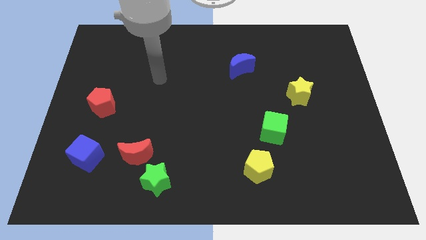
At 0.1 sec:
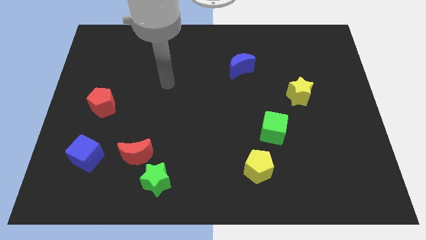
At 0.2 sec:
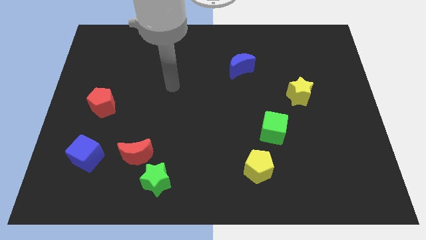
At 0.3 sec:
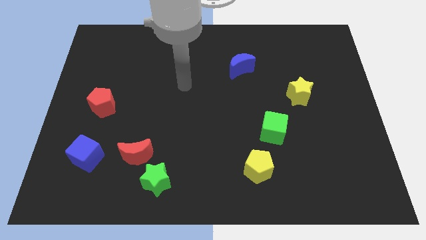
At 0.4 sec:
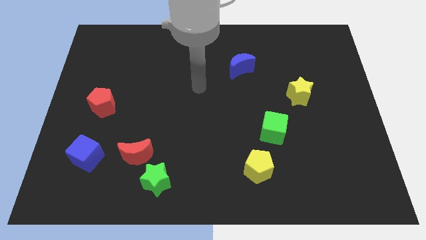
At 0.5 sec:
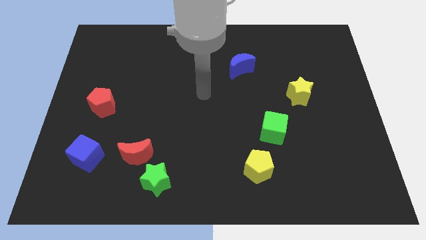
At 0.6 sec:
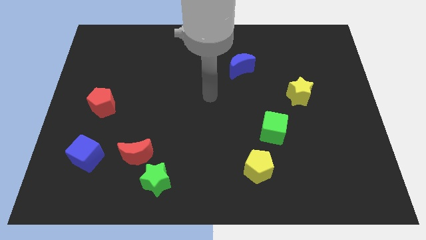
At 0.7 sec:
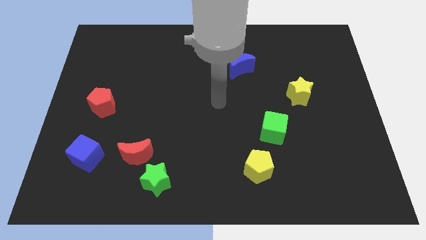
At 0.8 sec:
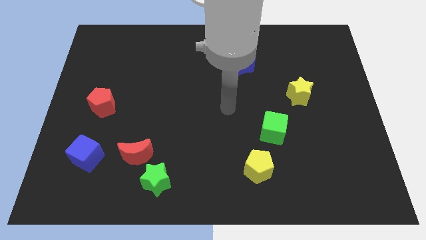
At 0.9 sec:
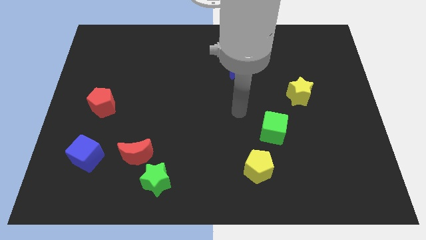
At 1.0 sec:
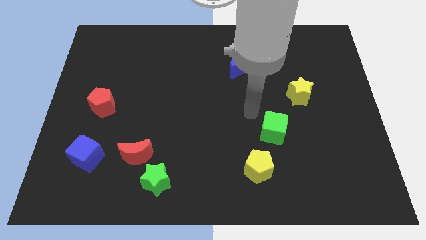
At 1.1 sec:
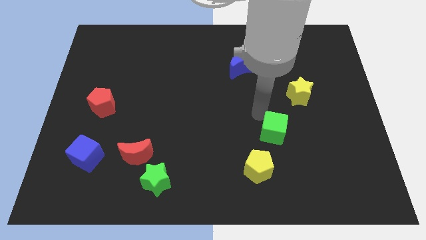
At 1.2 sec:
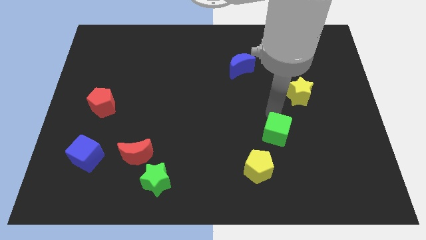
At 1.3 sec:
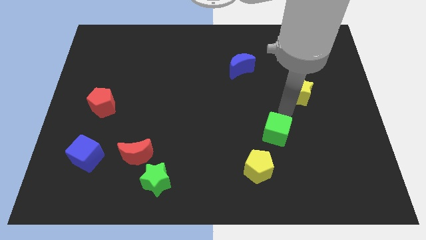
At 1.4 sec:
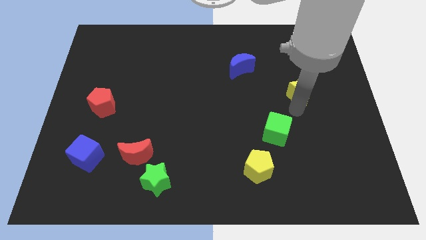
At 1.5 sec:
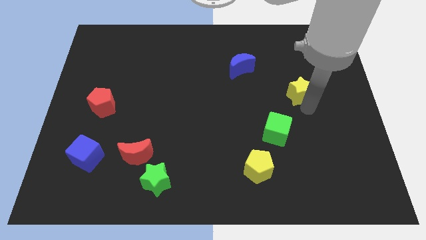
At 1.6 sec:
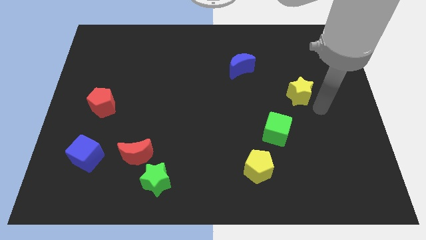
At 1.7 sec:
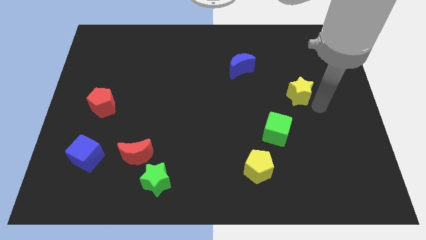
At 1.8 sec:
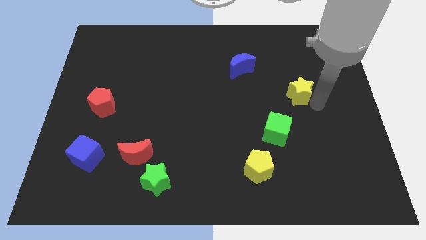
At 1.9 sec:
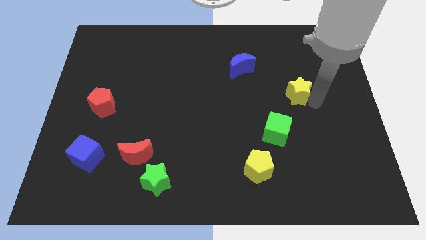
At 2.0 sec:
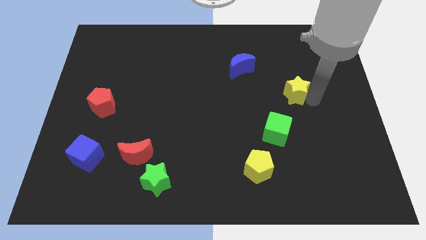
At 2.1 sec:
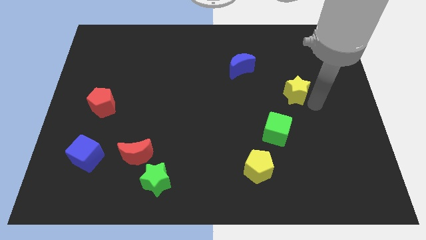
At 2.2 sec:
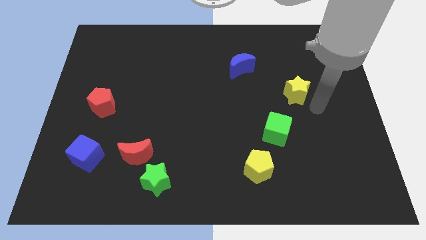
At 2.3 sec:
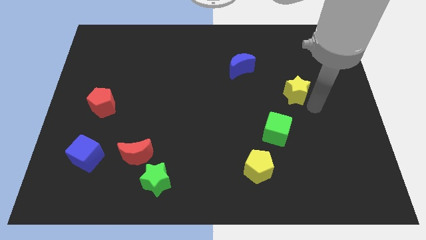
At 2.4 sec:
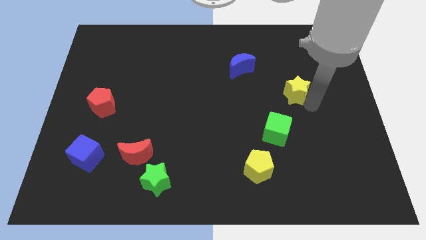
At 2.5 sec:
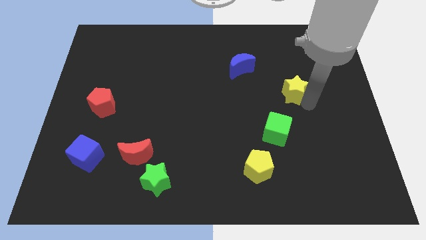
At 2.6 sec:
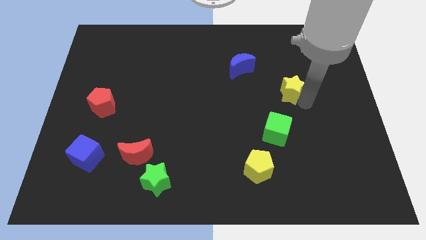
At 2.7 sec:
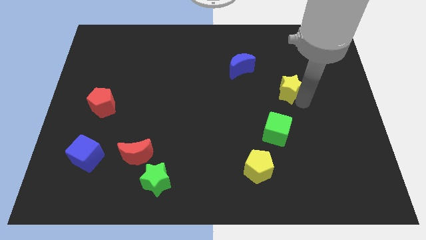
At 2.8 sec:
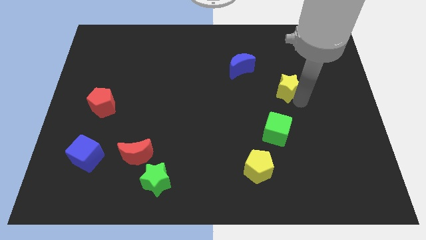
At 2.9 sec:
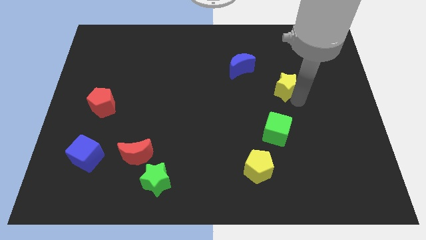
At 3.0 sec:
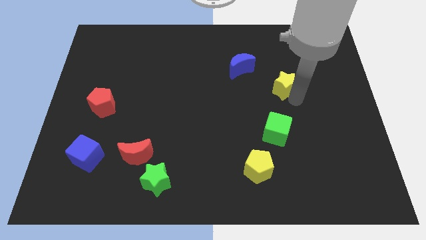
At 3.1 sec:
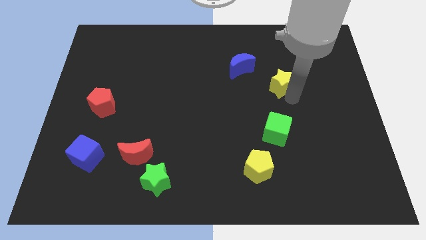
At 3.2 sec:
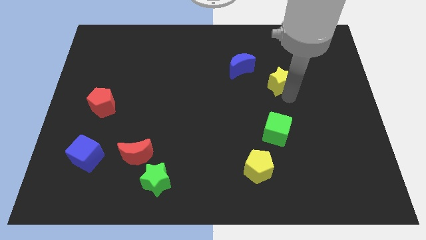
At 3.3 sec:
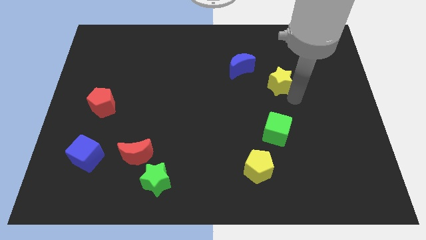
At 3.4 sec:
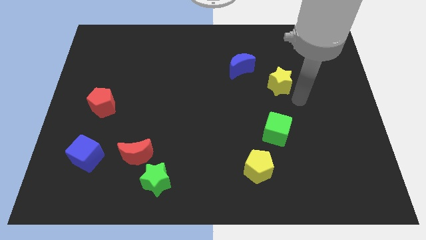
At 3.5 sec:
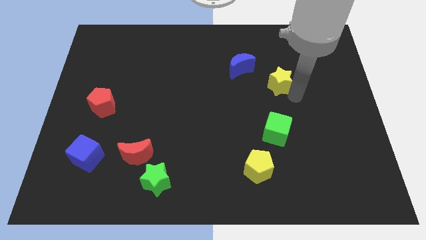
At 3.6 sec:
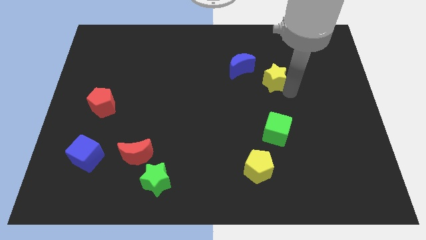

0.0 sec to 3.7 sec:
slightly slide the yellow star up and left

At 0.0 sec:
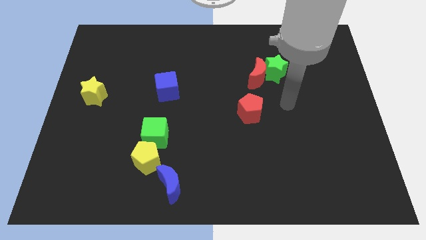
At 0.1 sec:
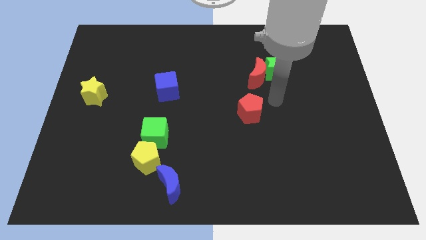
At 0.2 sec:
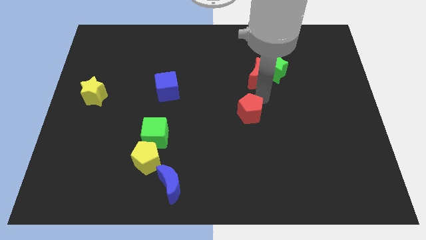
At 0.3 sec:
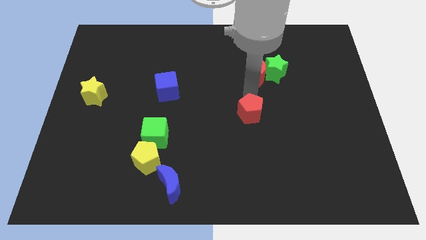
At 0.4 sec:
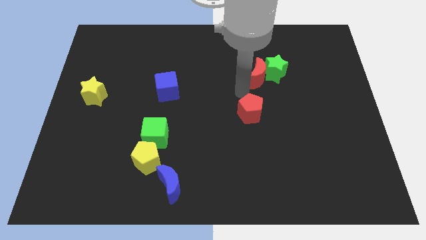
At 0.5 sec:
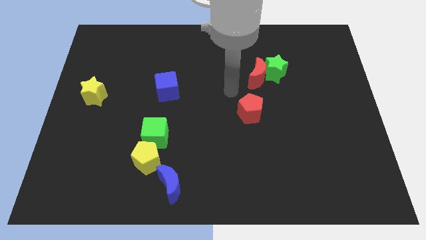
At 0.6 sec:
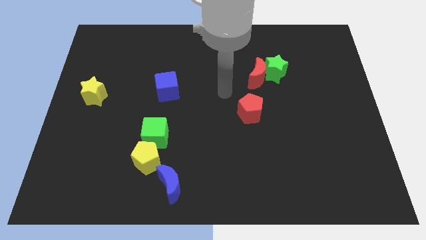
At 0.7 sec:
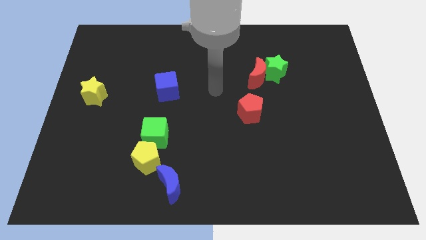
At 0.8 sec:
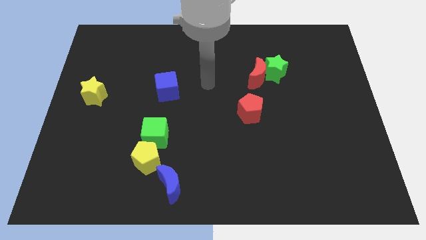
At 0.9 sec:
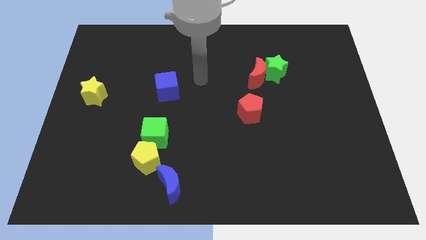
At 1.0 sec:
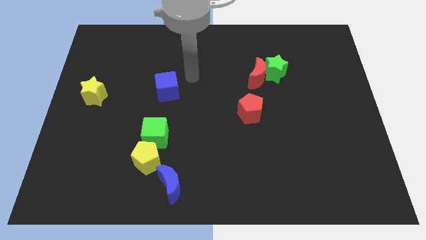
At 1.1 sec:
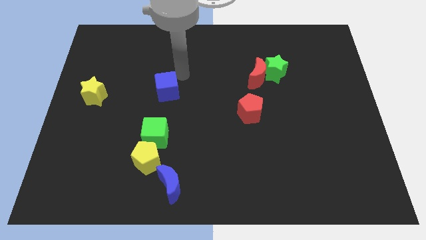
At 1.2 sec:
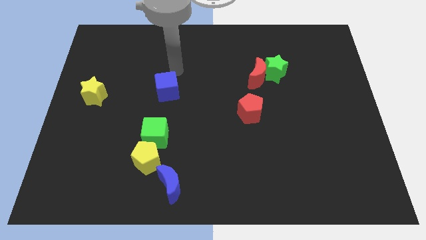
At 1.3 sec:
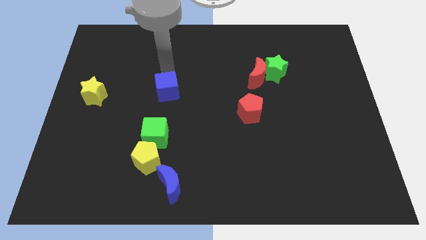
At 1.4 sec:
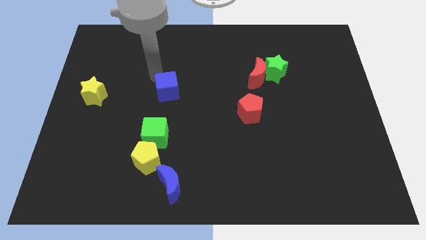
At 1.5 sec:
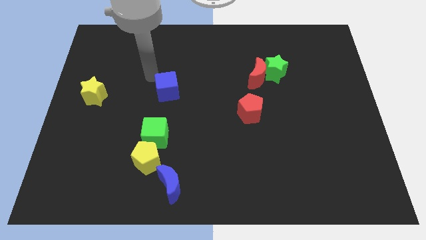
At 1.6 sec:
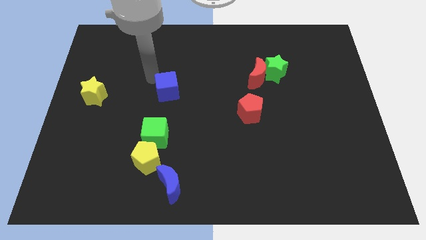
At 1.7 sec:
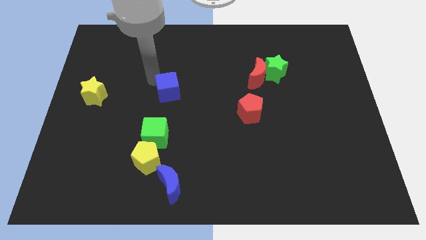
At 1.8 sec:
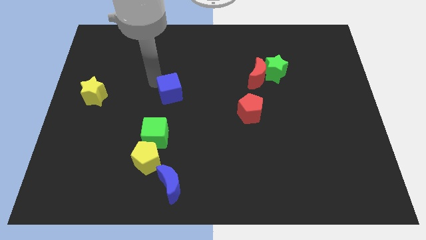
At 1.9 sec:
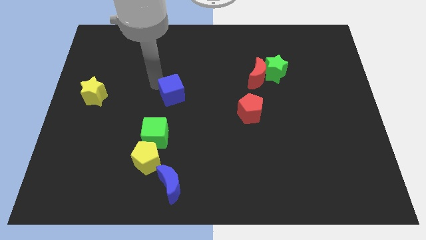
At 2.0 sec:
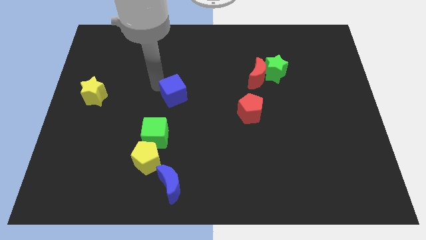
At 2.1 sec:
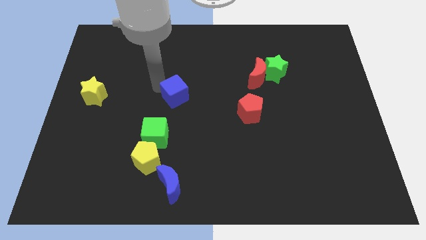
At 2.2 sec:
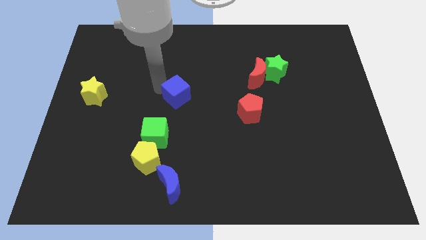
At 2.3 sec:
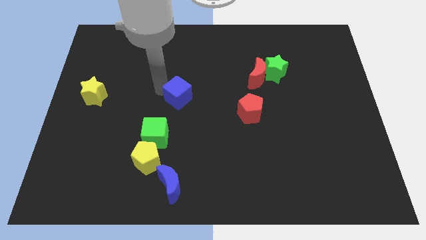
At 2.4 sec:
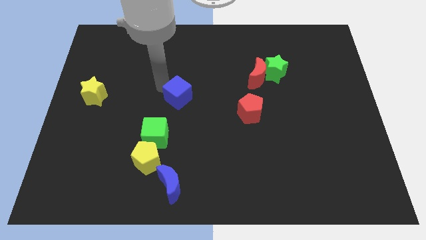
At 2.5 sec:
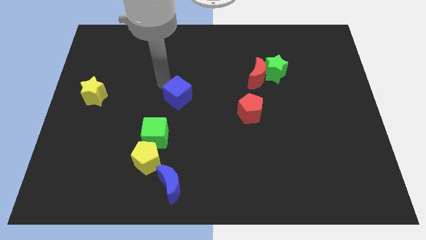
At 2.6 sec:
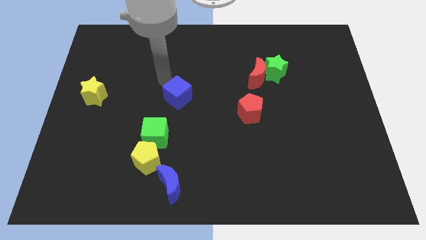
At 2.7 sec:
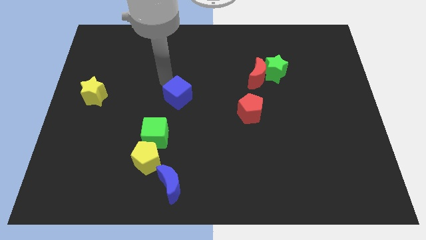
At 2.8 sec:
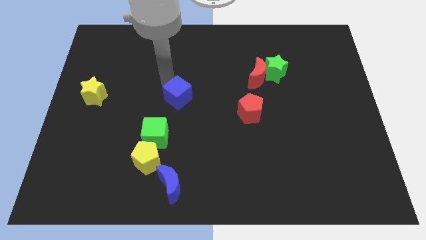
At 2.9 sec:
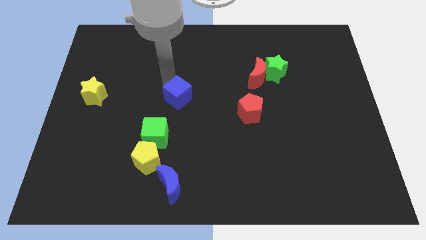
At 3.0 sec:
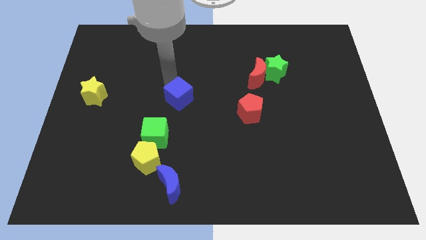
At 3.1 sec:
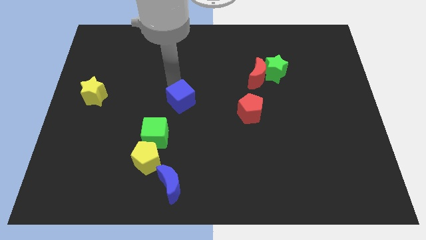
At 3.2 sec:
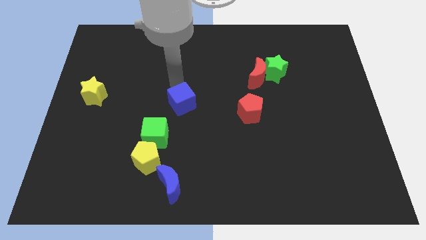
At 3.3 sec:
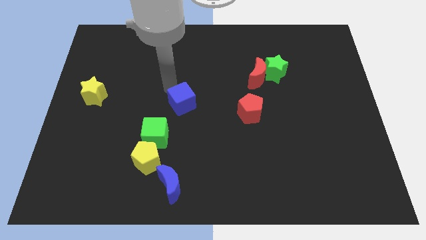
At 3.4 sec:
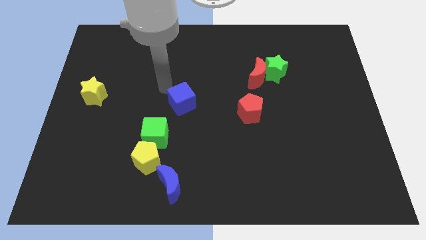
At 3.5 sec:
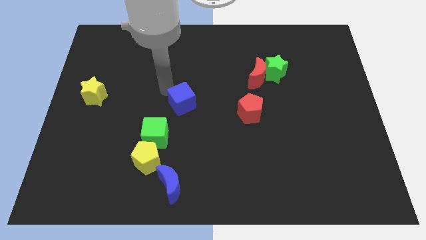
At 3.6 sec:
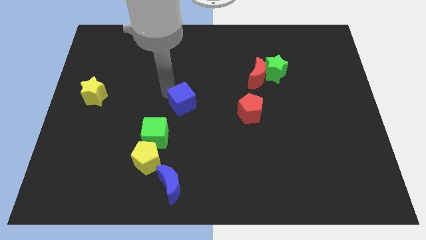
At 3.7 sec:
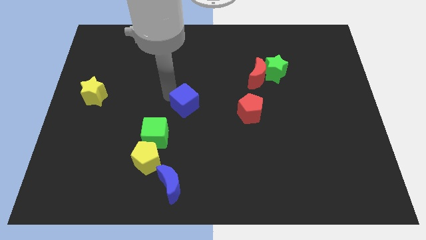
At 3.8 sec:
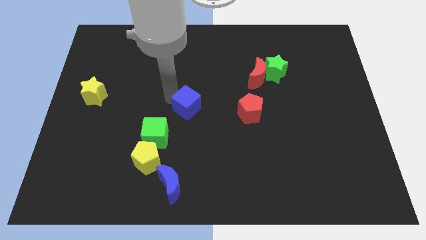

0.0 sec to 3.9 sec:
slightly move the blue cube downwards and then right
